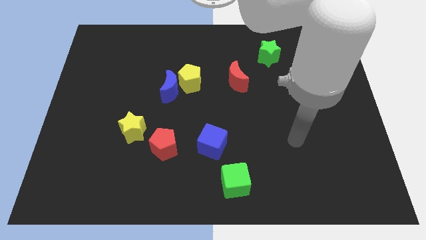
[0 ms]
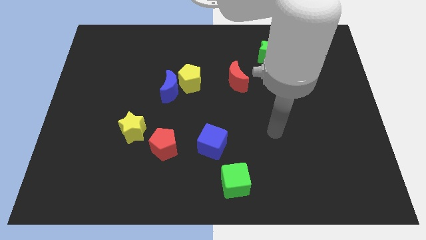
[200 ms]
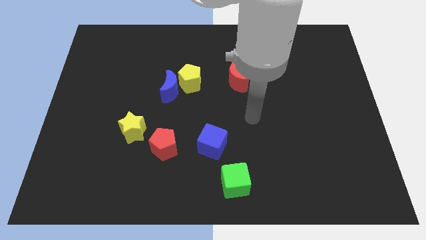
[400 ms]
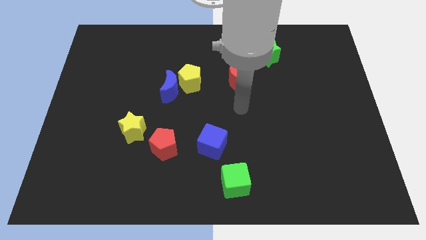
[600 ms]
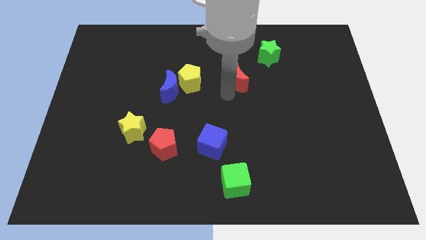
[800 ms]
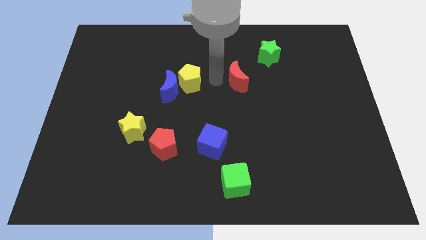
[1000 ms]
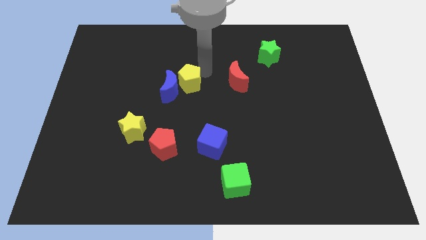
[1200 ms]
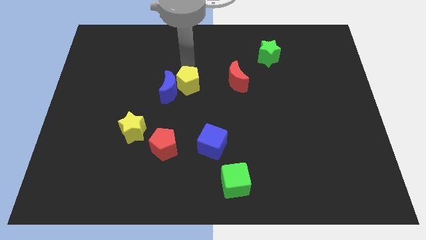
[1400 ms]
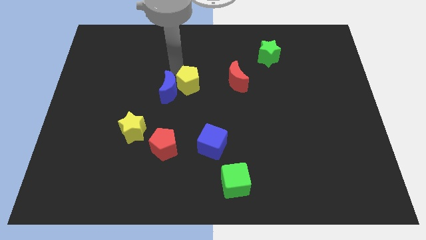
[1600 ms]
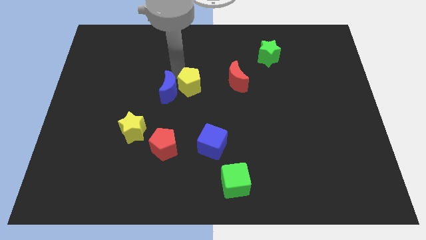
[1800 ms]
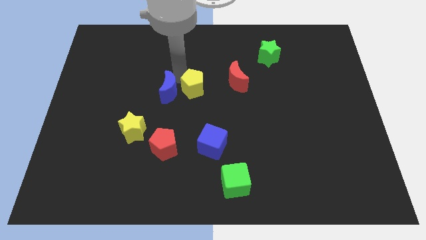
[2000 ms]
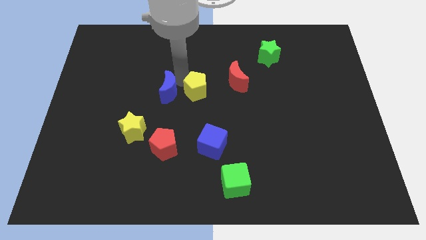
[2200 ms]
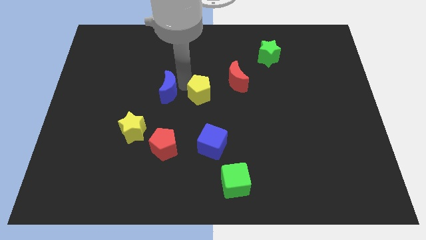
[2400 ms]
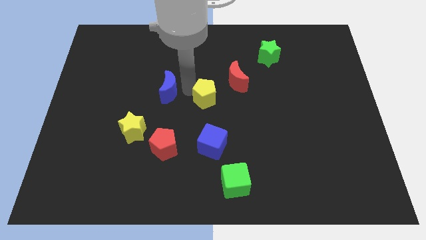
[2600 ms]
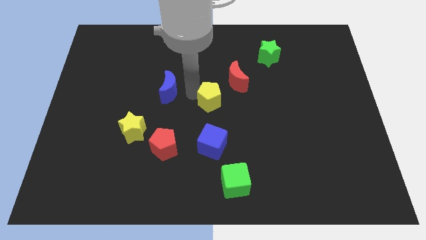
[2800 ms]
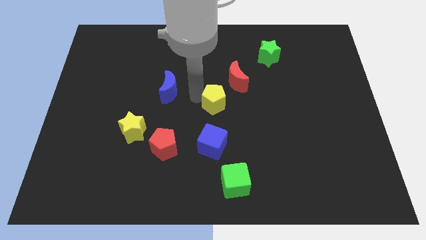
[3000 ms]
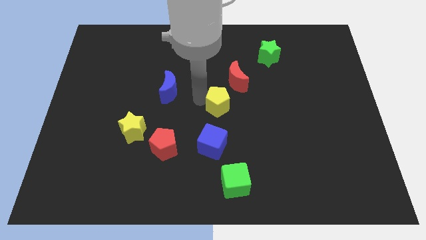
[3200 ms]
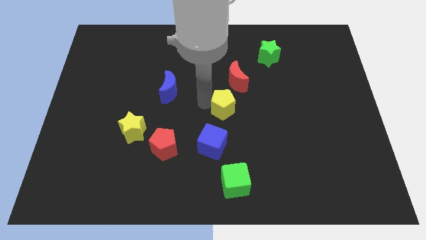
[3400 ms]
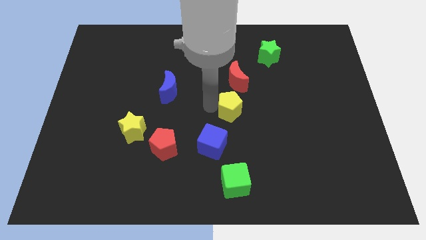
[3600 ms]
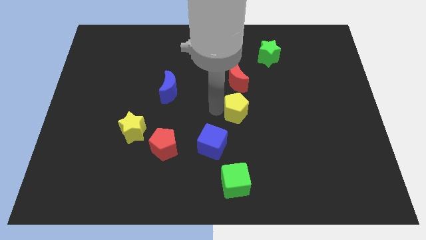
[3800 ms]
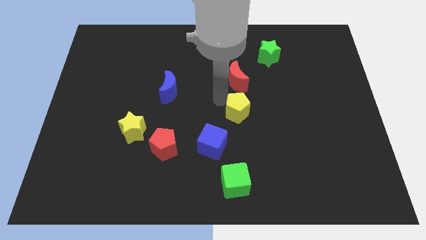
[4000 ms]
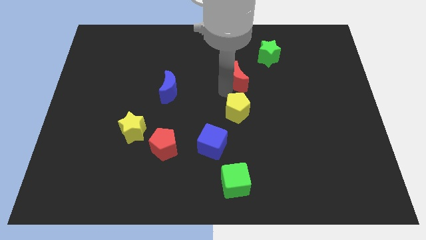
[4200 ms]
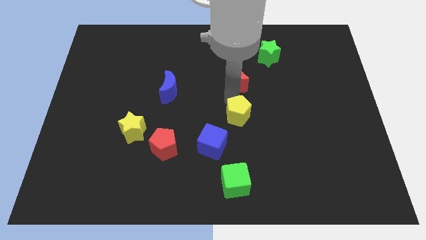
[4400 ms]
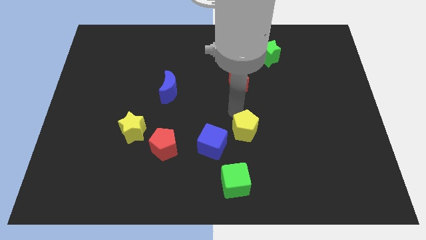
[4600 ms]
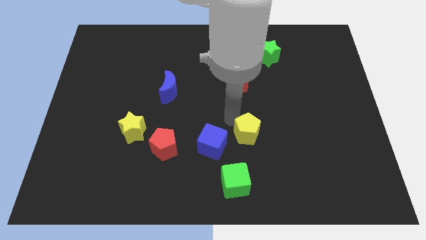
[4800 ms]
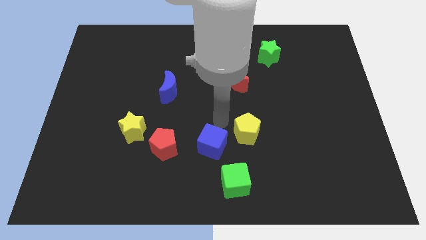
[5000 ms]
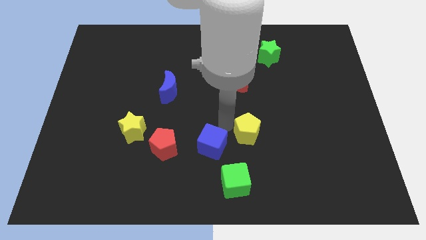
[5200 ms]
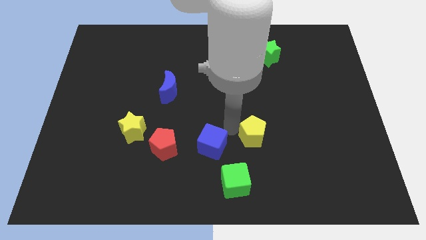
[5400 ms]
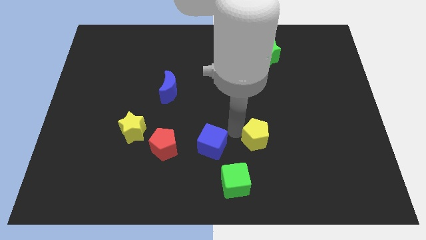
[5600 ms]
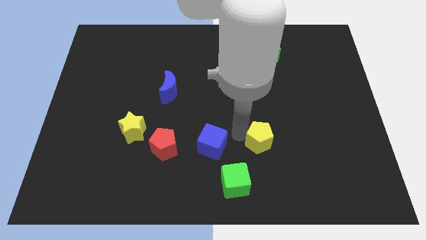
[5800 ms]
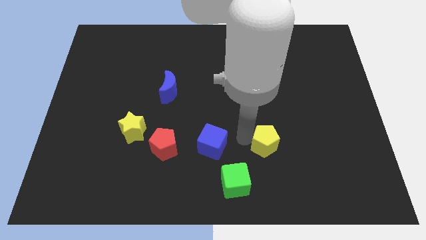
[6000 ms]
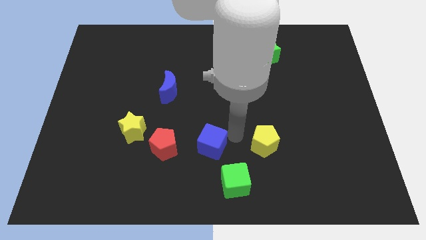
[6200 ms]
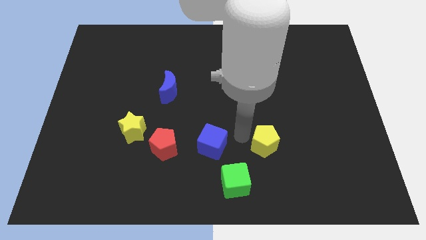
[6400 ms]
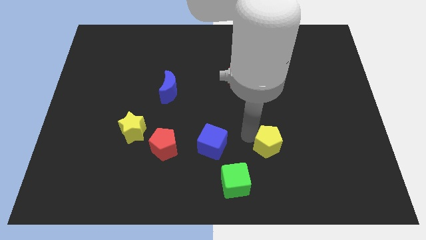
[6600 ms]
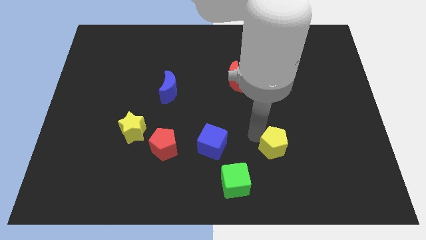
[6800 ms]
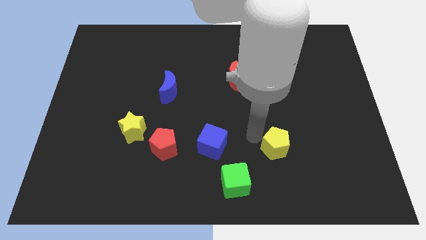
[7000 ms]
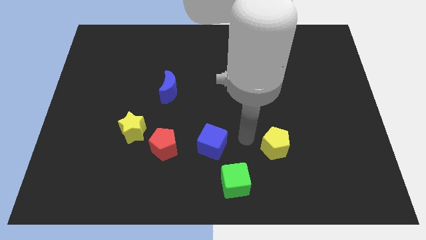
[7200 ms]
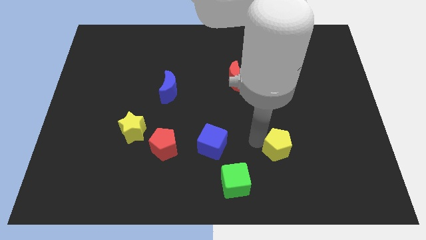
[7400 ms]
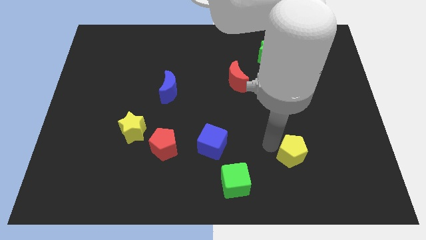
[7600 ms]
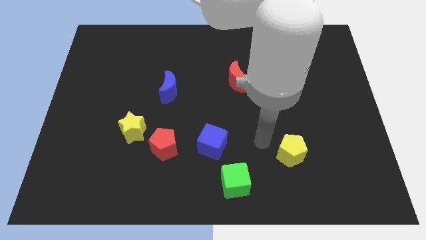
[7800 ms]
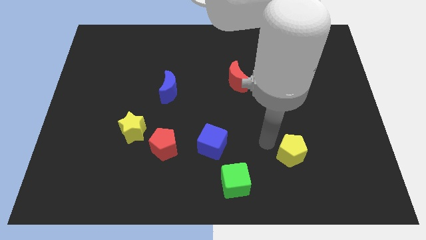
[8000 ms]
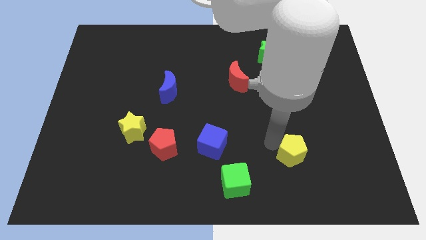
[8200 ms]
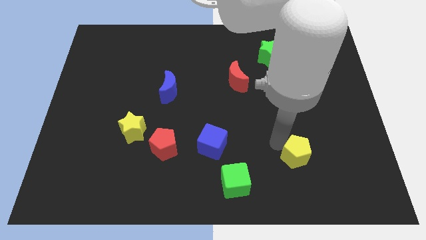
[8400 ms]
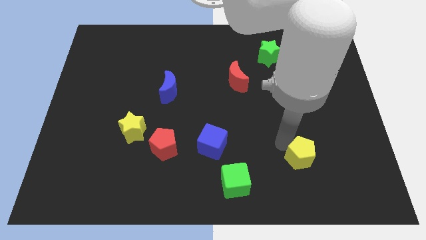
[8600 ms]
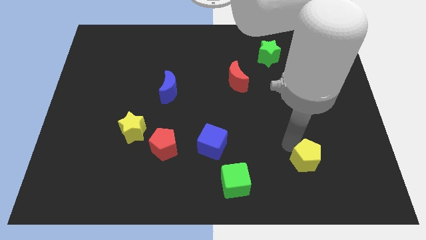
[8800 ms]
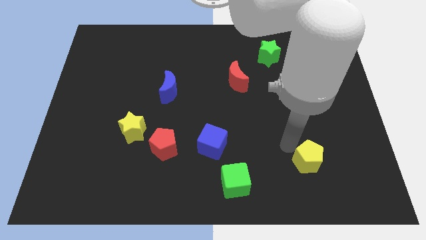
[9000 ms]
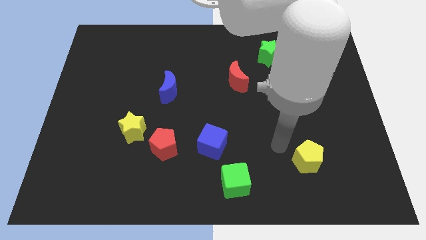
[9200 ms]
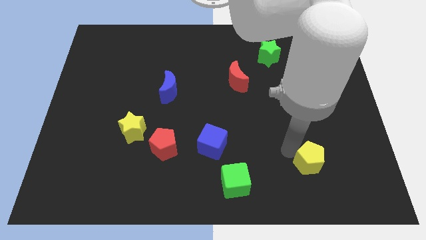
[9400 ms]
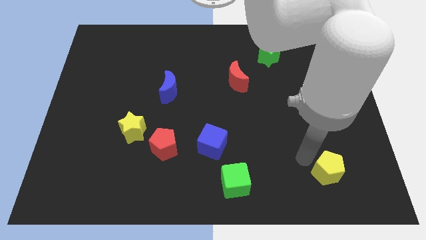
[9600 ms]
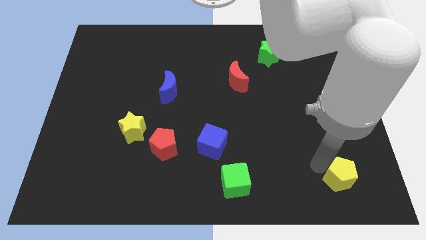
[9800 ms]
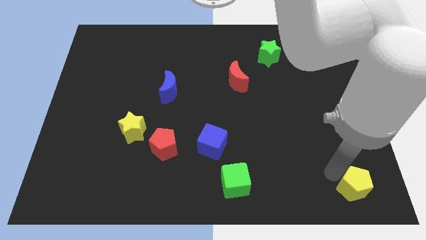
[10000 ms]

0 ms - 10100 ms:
move the yellow pentagon to the bottom right of the board

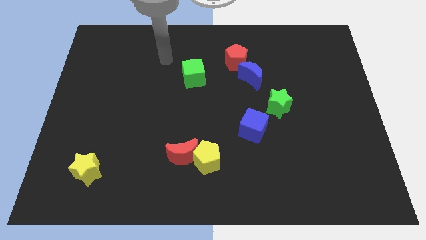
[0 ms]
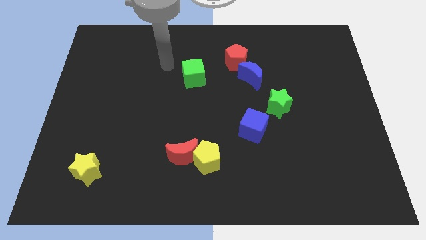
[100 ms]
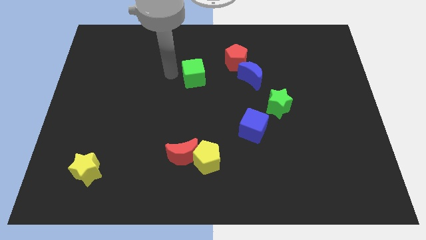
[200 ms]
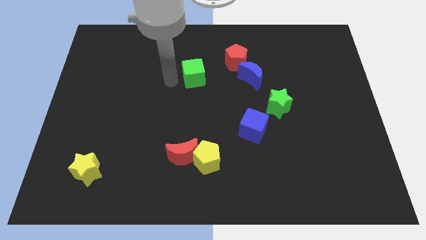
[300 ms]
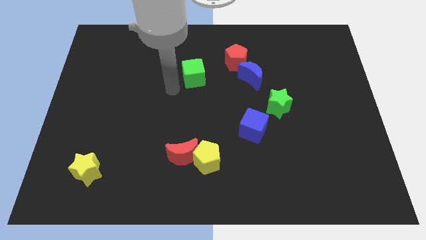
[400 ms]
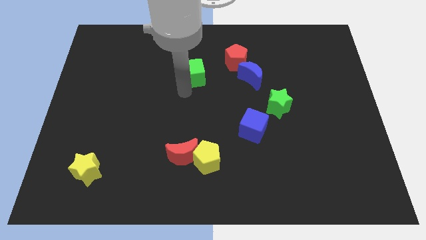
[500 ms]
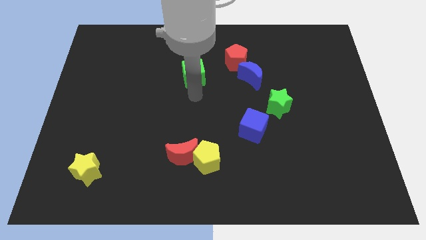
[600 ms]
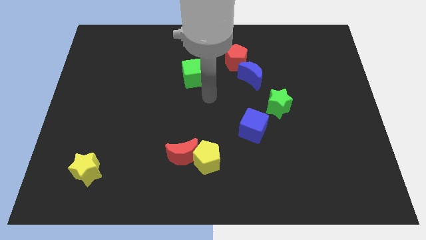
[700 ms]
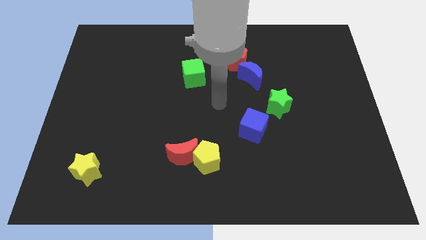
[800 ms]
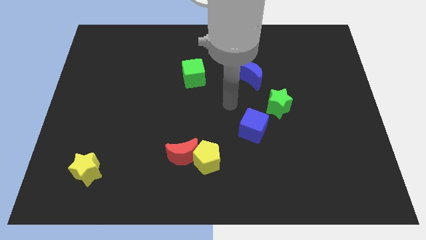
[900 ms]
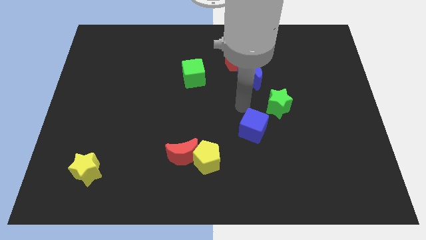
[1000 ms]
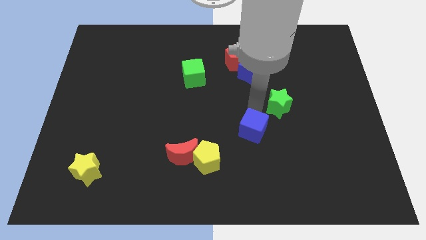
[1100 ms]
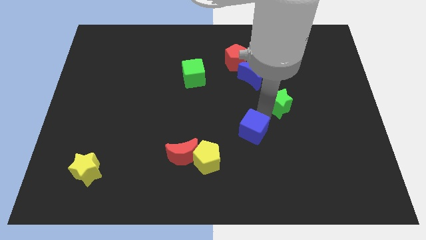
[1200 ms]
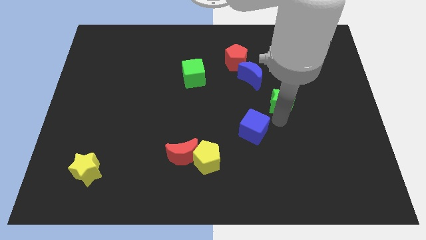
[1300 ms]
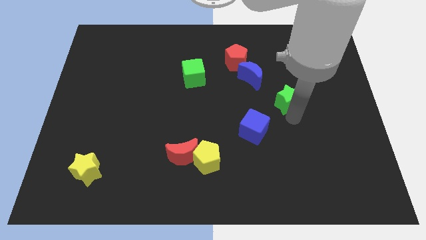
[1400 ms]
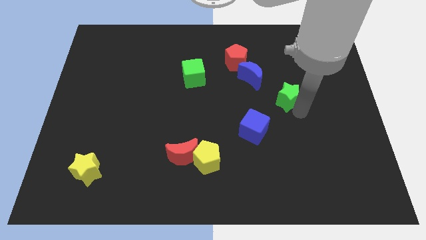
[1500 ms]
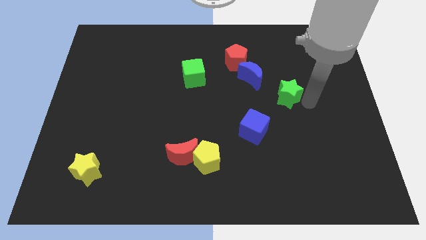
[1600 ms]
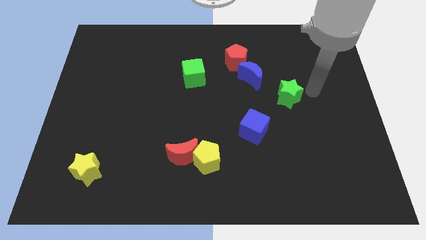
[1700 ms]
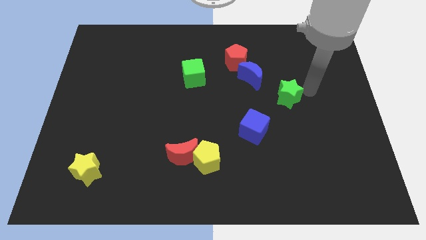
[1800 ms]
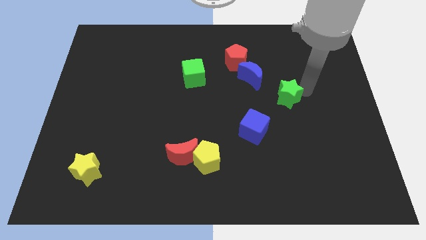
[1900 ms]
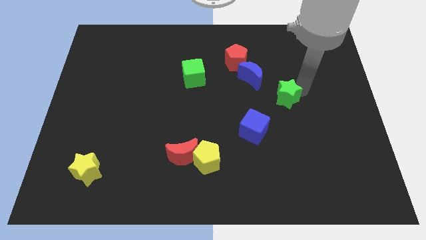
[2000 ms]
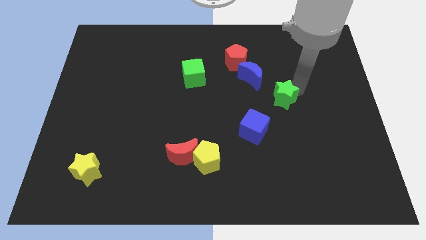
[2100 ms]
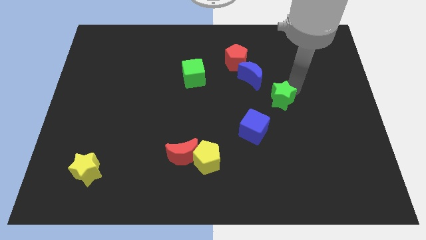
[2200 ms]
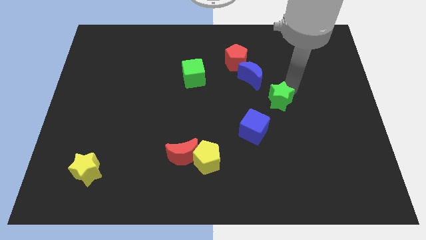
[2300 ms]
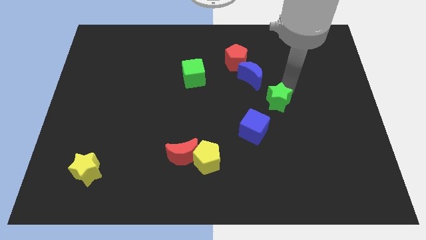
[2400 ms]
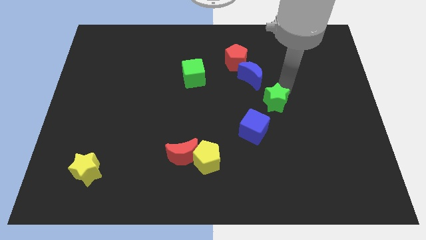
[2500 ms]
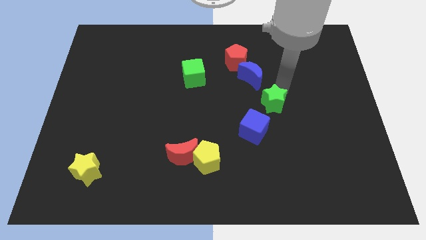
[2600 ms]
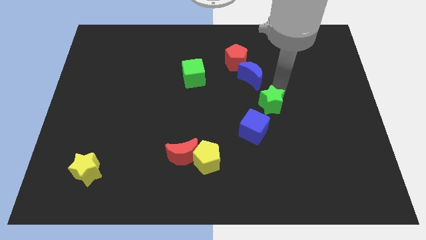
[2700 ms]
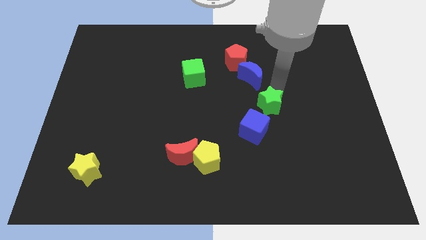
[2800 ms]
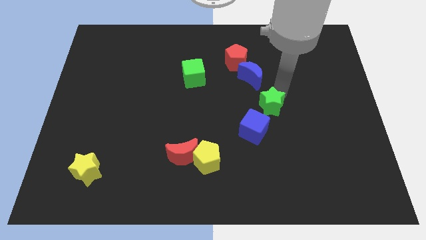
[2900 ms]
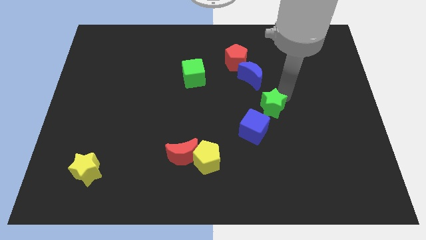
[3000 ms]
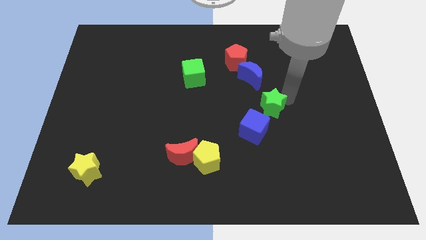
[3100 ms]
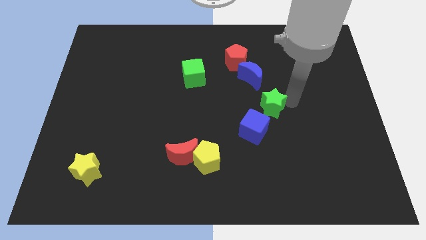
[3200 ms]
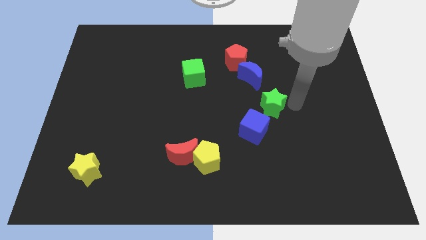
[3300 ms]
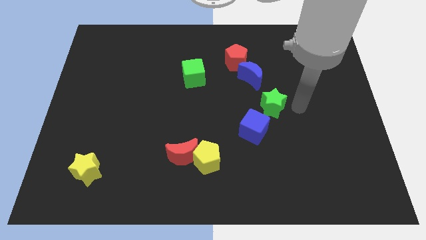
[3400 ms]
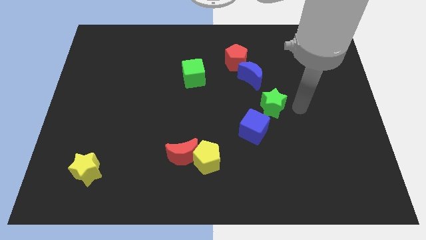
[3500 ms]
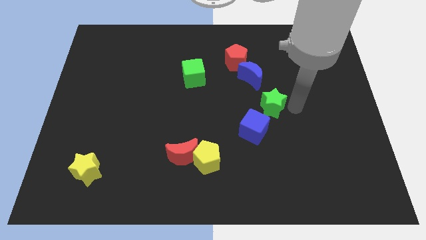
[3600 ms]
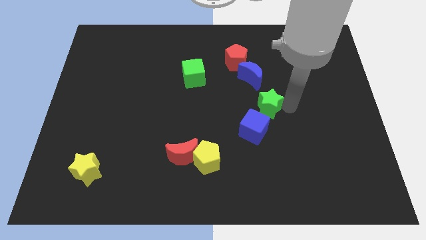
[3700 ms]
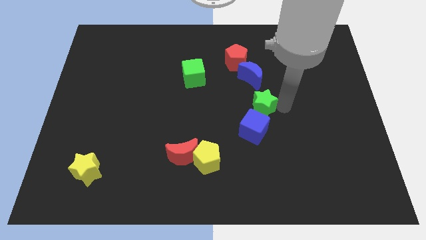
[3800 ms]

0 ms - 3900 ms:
push the green star to the middle
